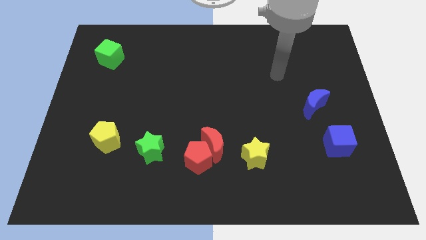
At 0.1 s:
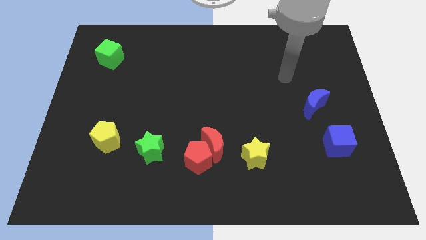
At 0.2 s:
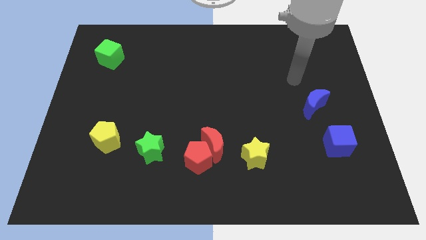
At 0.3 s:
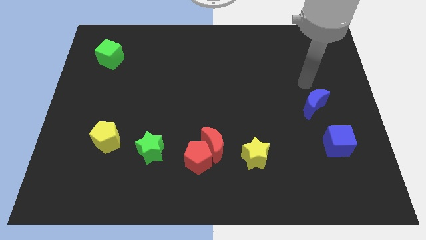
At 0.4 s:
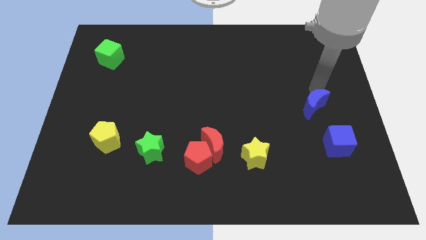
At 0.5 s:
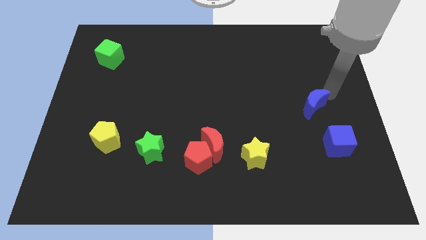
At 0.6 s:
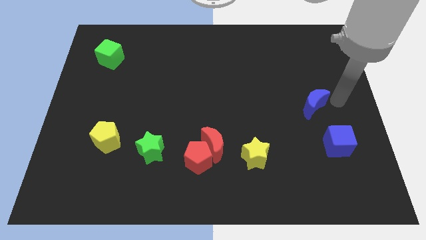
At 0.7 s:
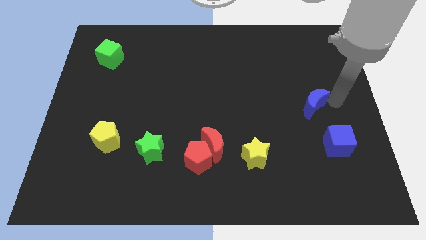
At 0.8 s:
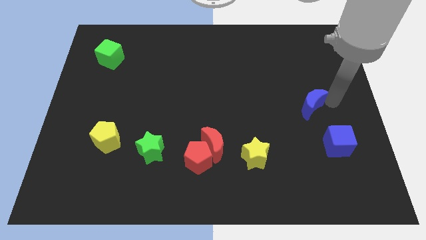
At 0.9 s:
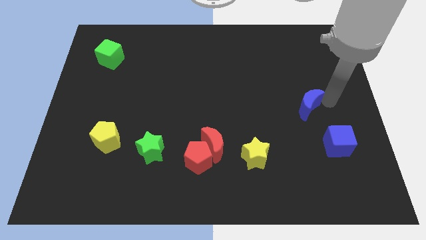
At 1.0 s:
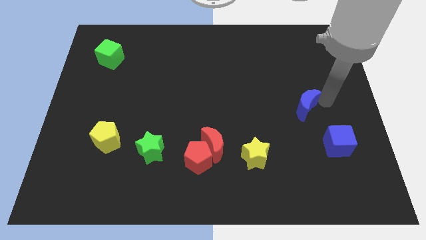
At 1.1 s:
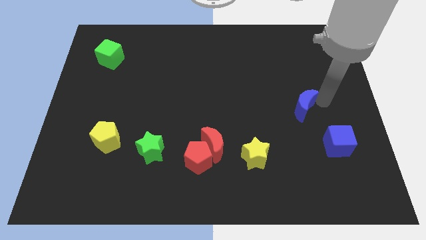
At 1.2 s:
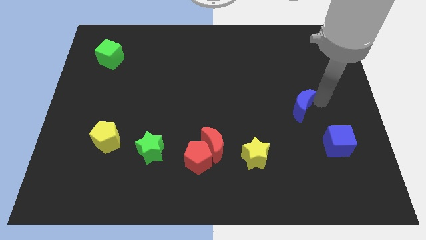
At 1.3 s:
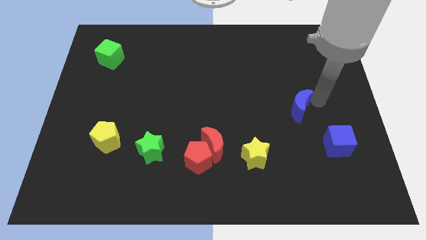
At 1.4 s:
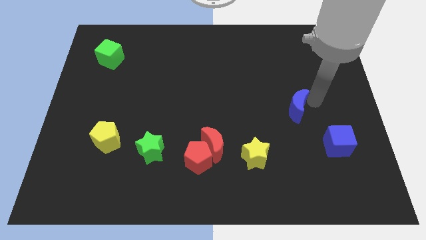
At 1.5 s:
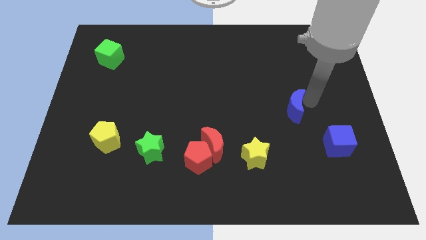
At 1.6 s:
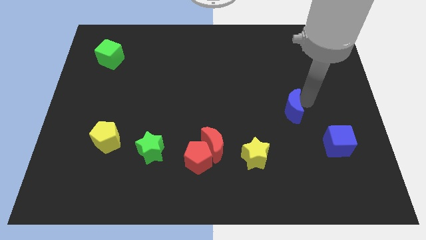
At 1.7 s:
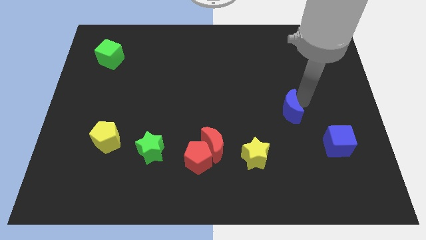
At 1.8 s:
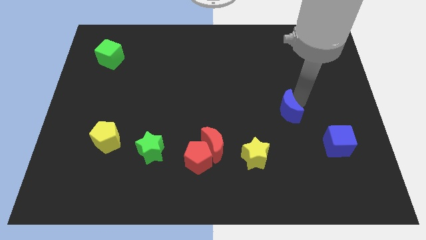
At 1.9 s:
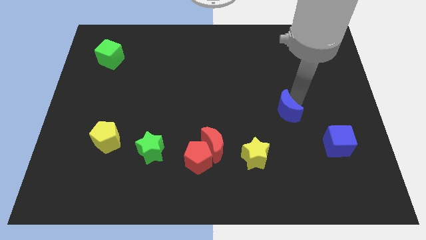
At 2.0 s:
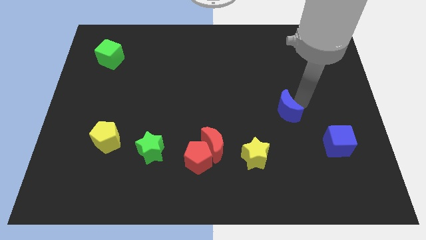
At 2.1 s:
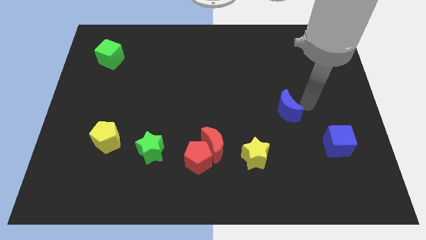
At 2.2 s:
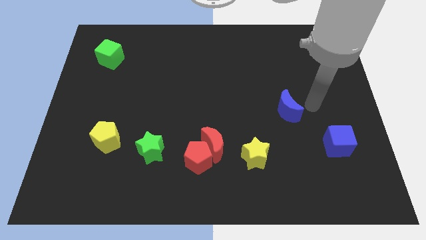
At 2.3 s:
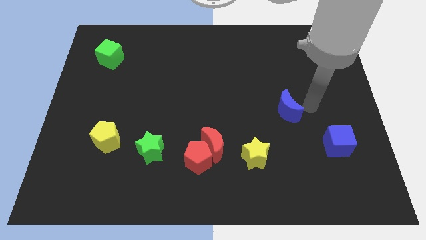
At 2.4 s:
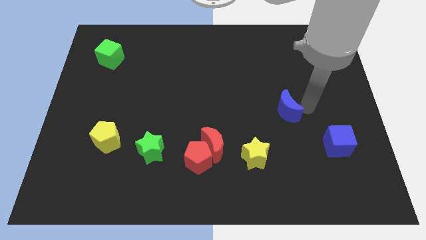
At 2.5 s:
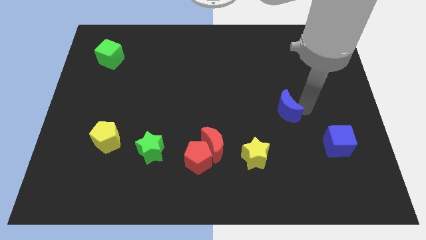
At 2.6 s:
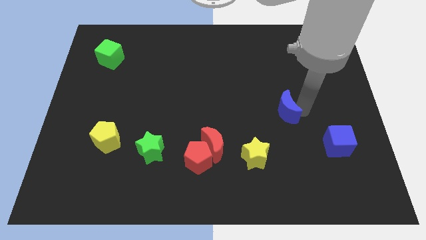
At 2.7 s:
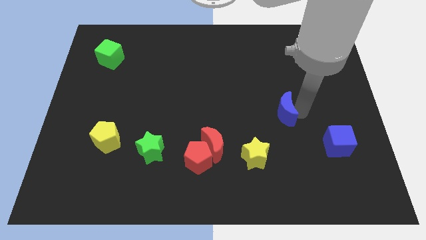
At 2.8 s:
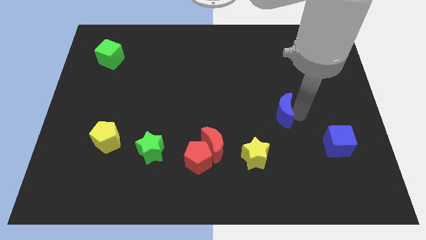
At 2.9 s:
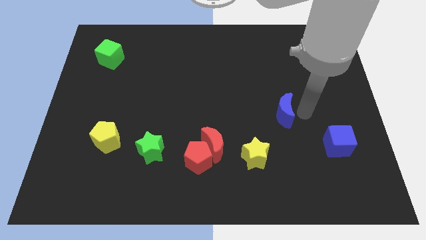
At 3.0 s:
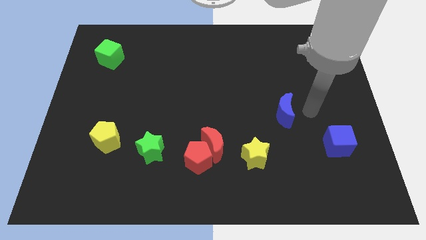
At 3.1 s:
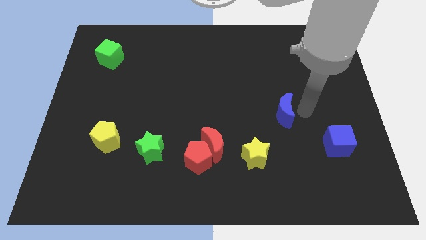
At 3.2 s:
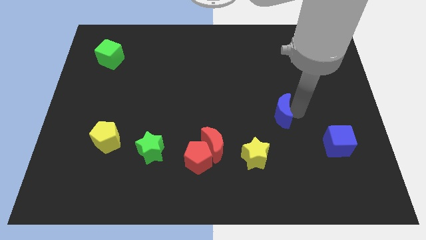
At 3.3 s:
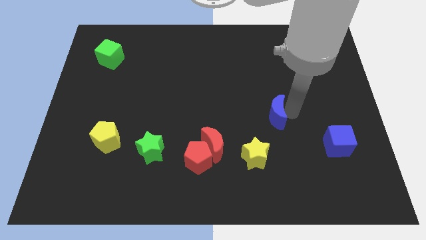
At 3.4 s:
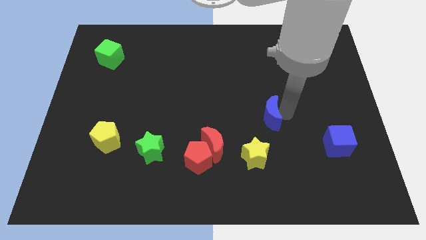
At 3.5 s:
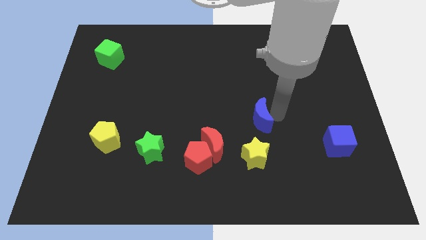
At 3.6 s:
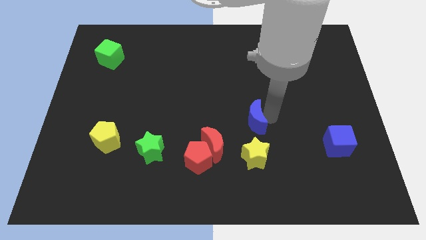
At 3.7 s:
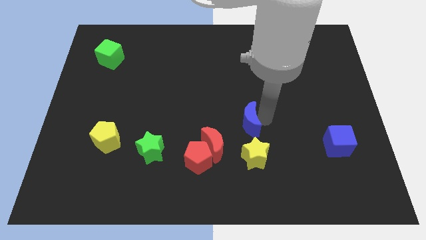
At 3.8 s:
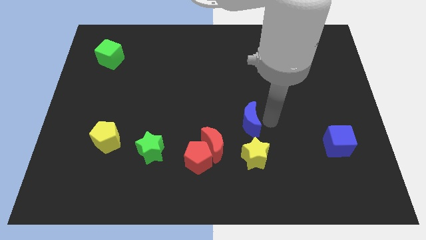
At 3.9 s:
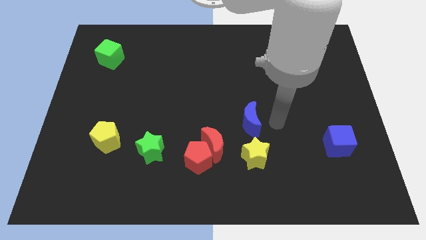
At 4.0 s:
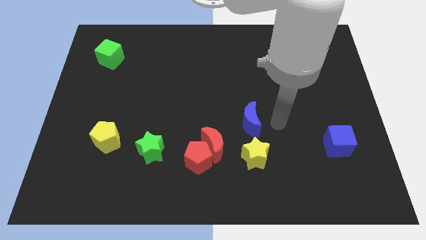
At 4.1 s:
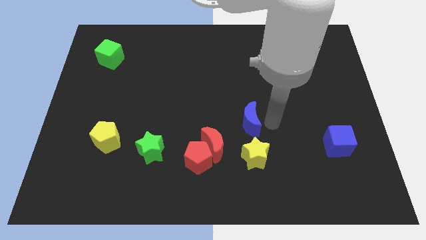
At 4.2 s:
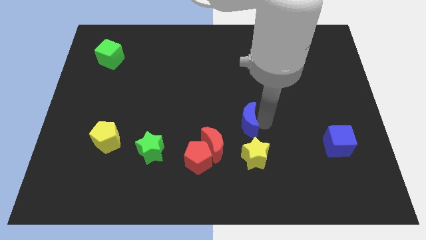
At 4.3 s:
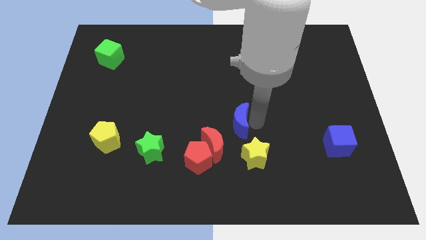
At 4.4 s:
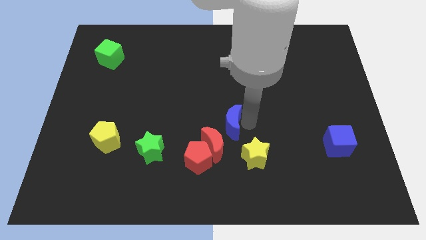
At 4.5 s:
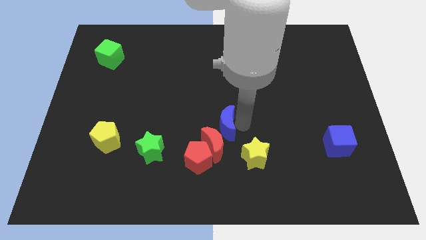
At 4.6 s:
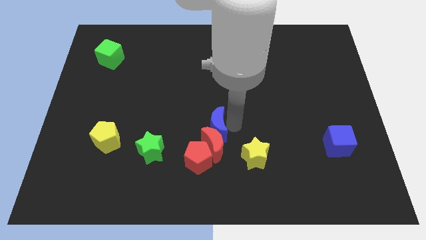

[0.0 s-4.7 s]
slide the blue moon to the top left side of the red moon

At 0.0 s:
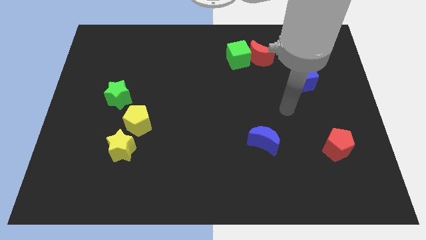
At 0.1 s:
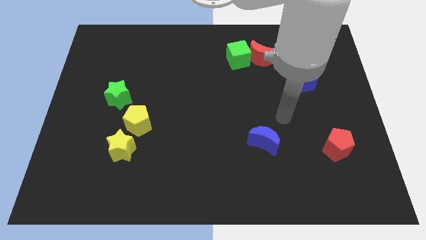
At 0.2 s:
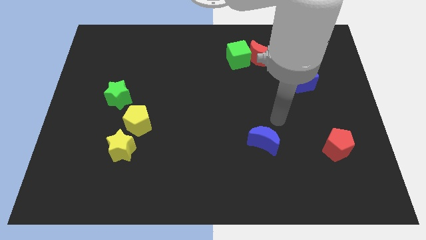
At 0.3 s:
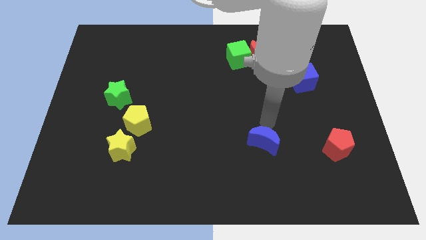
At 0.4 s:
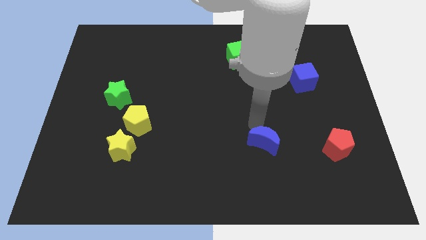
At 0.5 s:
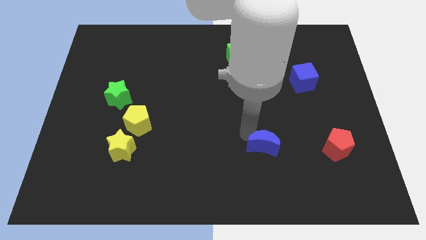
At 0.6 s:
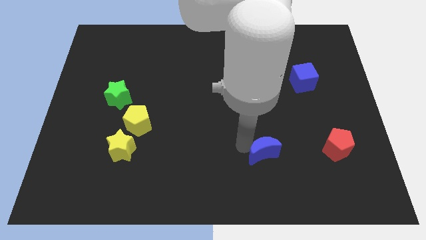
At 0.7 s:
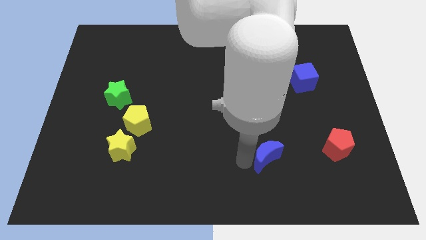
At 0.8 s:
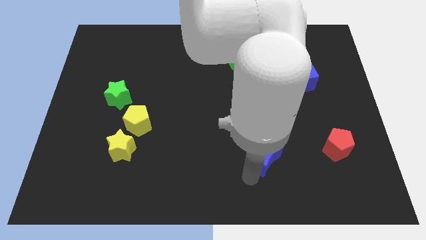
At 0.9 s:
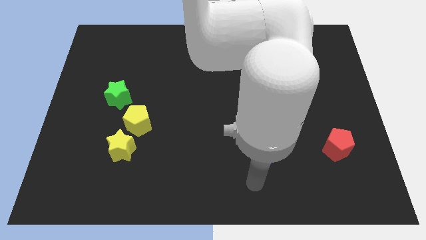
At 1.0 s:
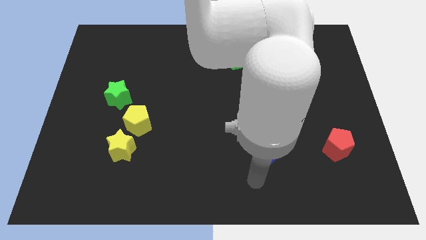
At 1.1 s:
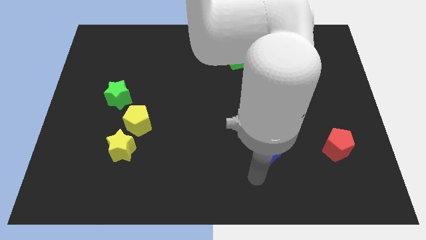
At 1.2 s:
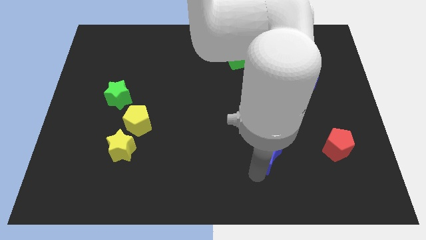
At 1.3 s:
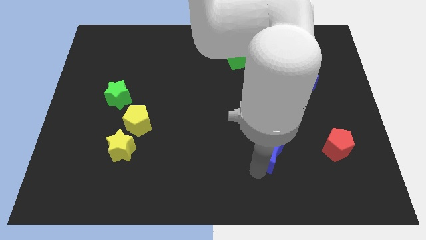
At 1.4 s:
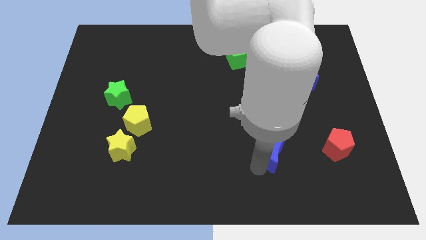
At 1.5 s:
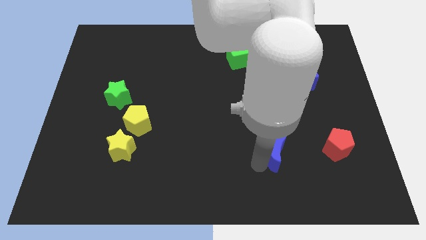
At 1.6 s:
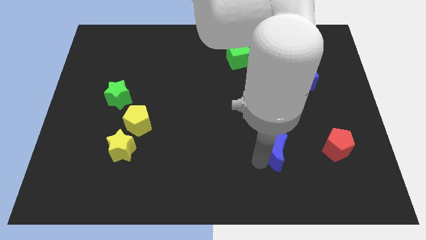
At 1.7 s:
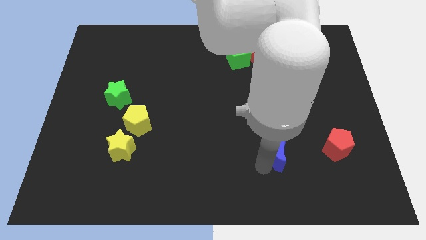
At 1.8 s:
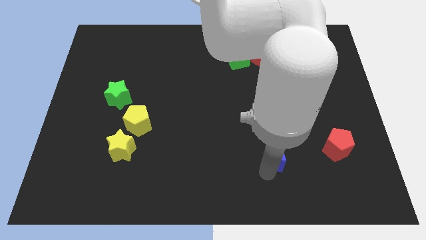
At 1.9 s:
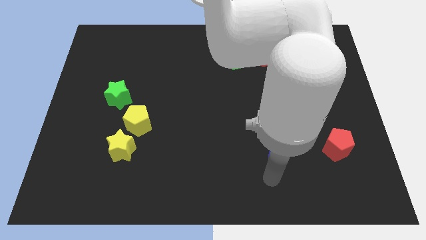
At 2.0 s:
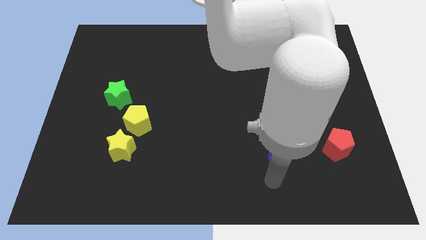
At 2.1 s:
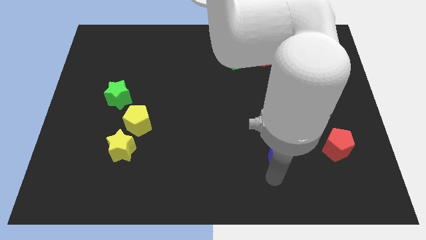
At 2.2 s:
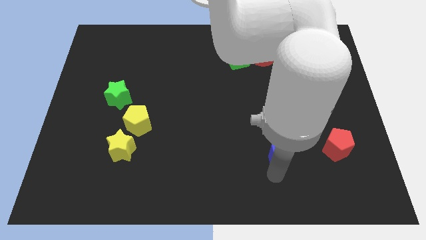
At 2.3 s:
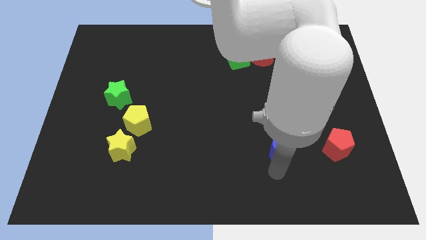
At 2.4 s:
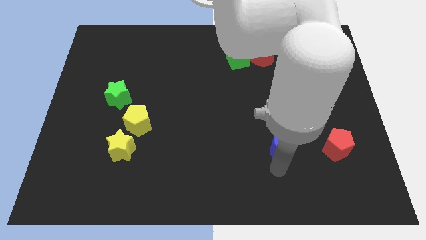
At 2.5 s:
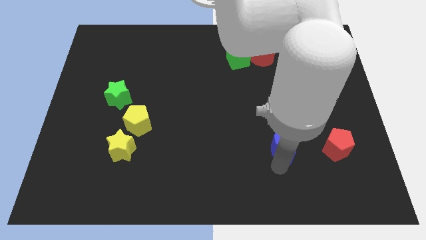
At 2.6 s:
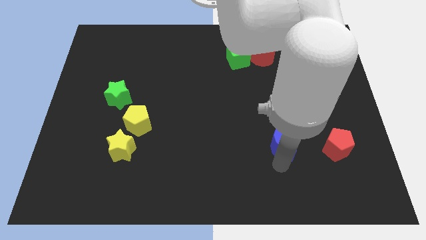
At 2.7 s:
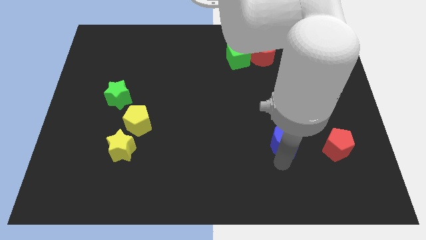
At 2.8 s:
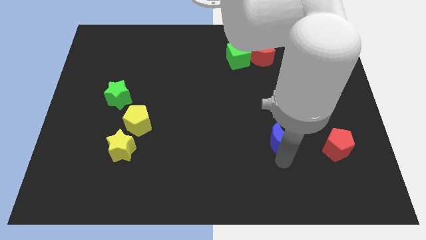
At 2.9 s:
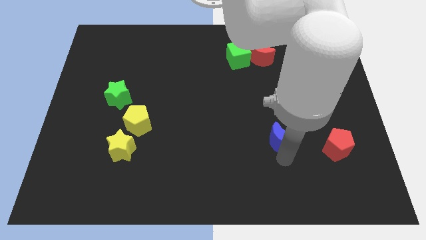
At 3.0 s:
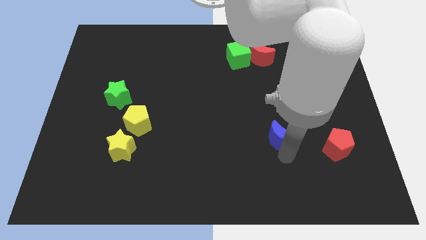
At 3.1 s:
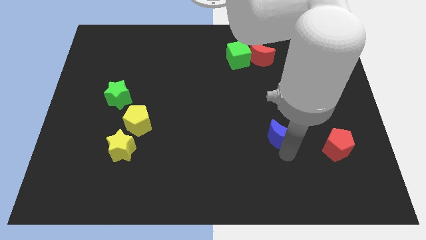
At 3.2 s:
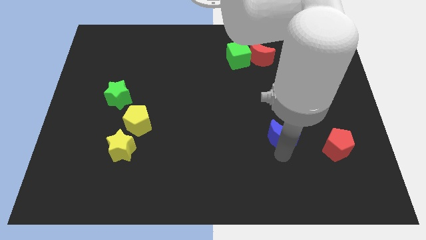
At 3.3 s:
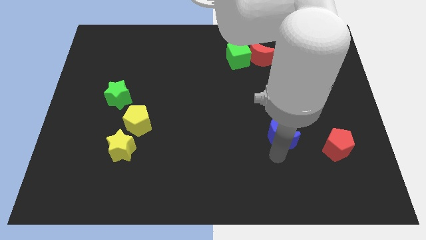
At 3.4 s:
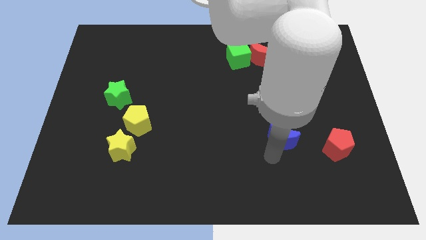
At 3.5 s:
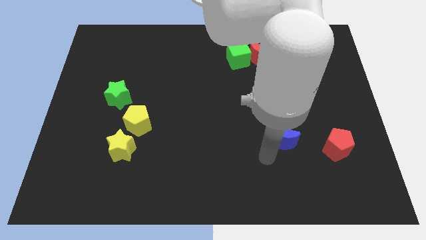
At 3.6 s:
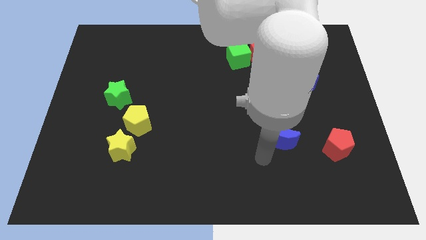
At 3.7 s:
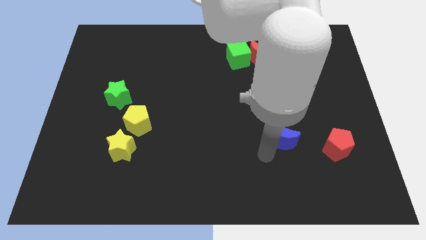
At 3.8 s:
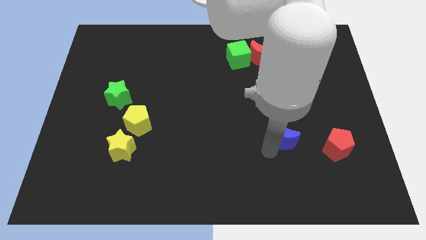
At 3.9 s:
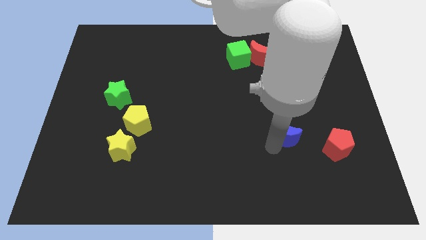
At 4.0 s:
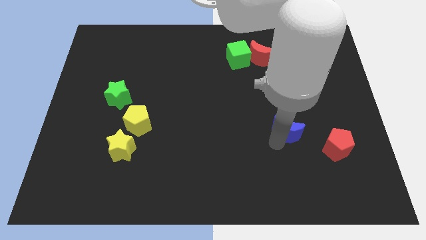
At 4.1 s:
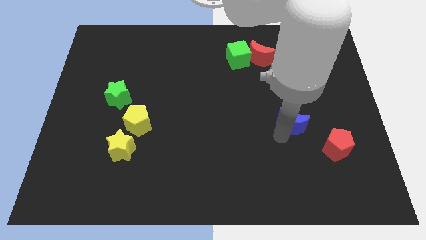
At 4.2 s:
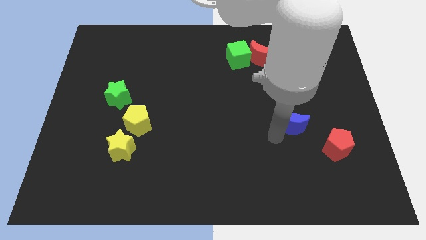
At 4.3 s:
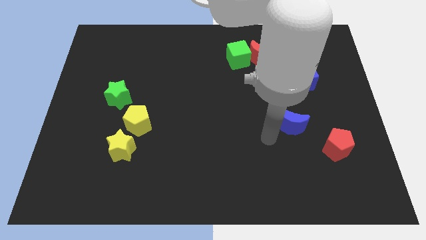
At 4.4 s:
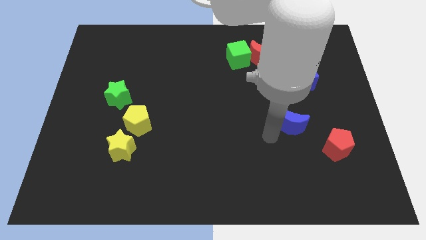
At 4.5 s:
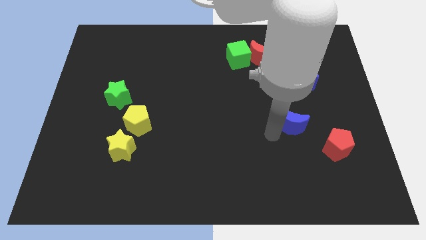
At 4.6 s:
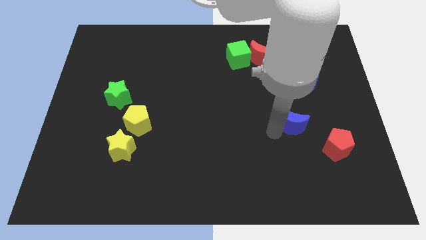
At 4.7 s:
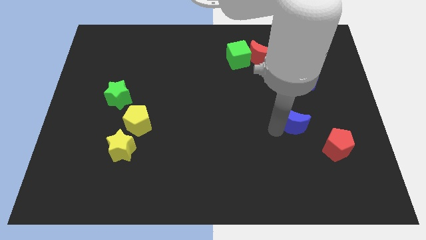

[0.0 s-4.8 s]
put the blue moon to the bottom side of the blue cube
